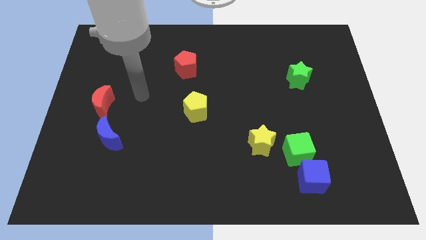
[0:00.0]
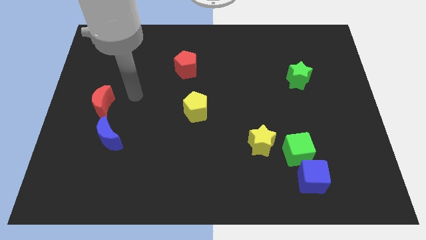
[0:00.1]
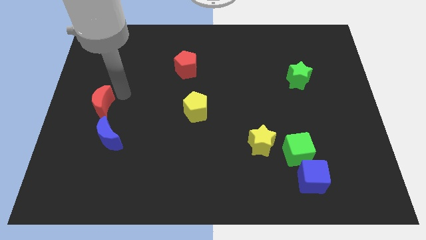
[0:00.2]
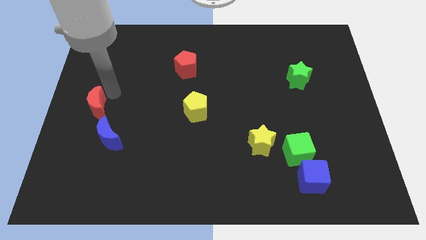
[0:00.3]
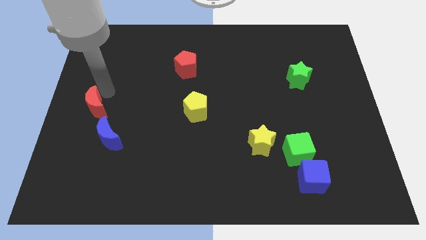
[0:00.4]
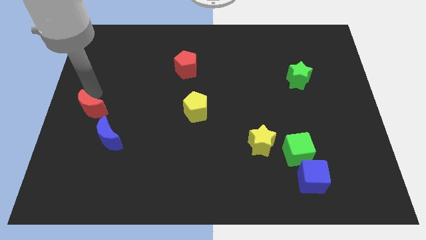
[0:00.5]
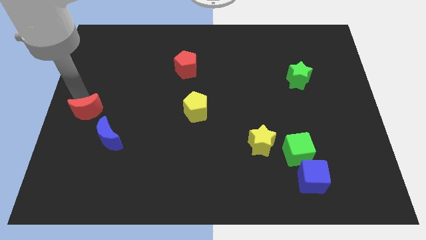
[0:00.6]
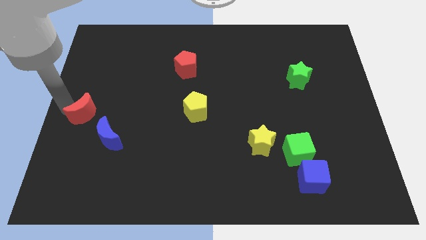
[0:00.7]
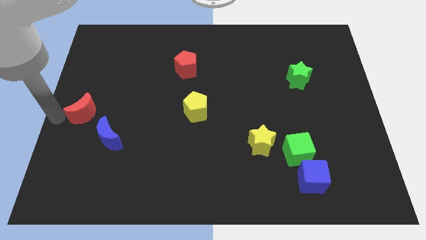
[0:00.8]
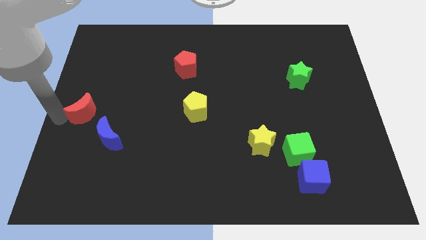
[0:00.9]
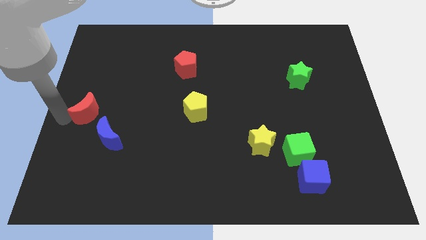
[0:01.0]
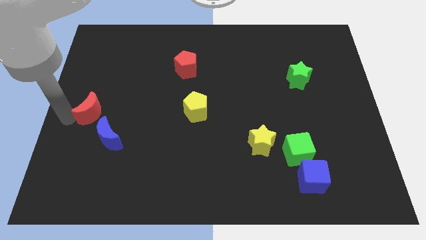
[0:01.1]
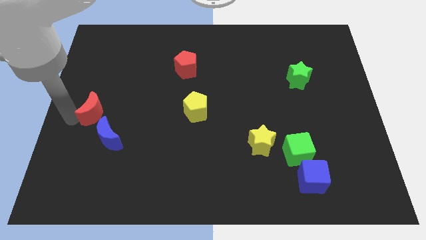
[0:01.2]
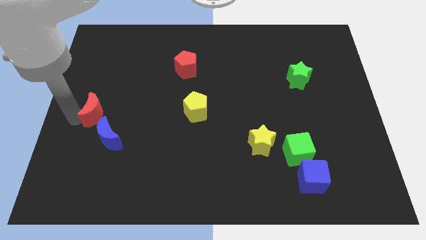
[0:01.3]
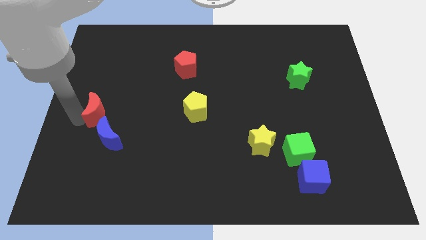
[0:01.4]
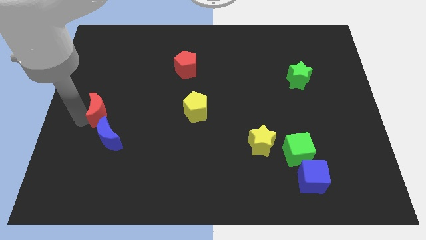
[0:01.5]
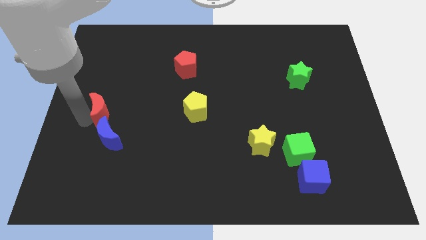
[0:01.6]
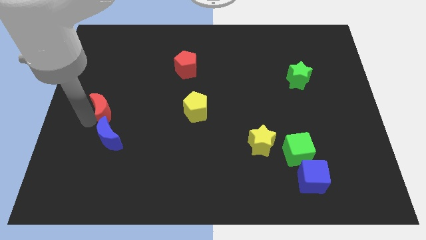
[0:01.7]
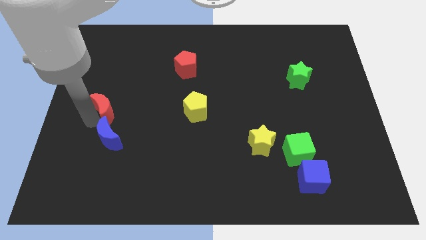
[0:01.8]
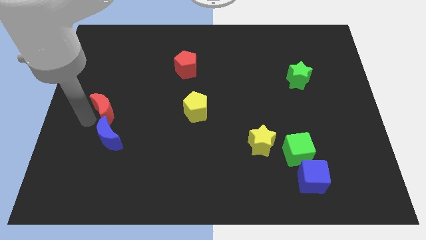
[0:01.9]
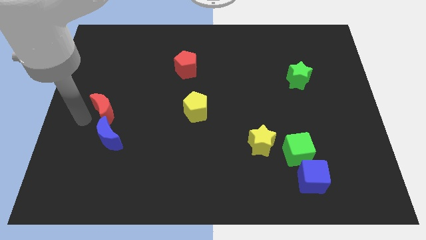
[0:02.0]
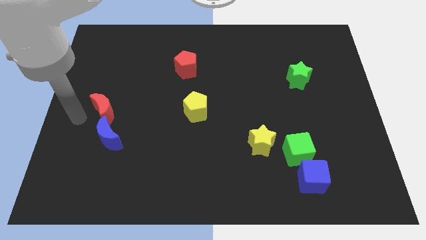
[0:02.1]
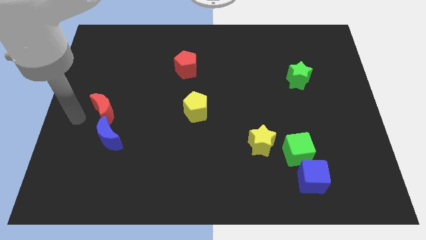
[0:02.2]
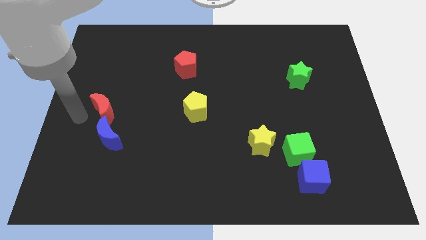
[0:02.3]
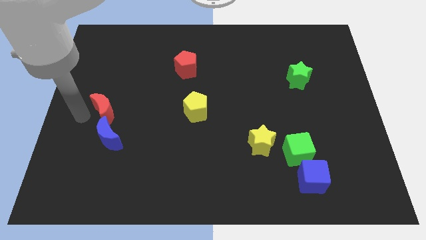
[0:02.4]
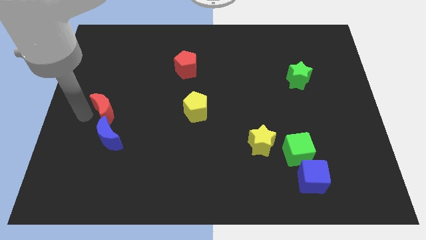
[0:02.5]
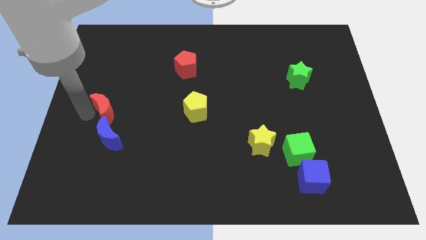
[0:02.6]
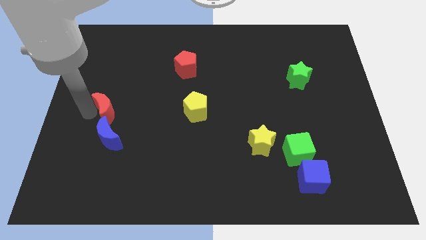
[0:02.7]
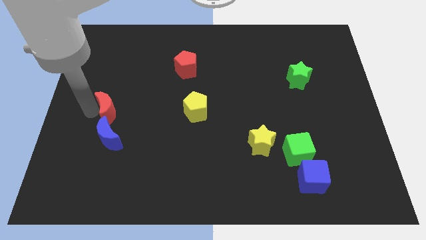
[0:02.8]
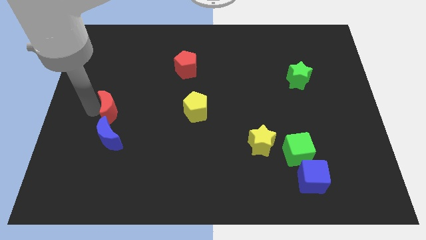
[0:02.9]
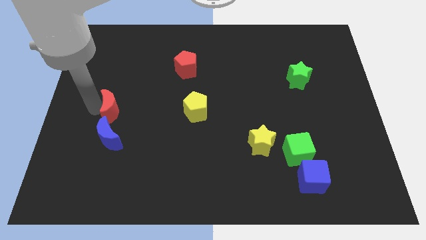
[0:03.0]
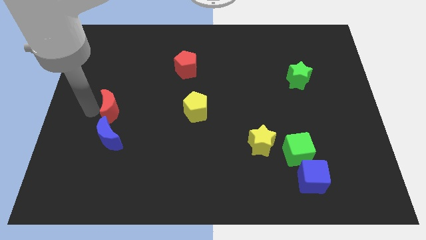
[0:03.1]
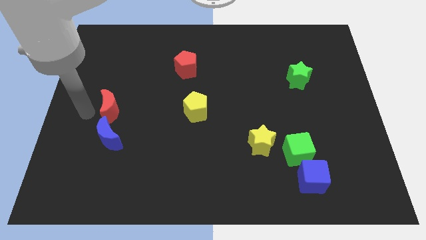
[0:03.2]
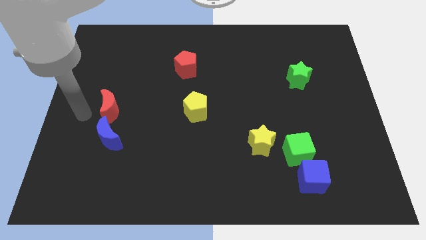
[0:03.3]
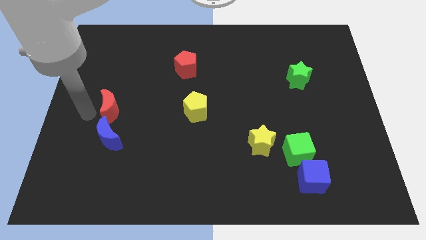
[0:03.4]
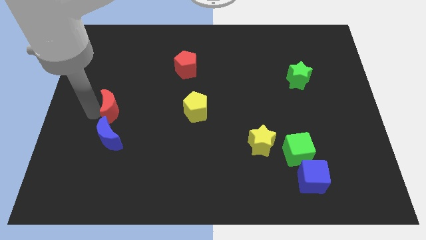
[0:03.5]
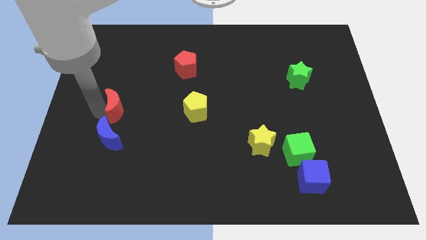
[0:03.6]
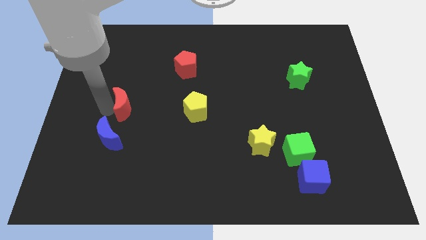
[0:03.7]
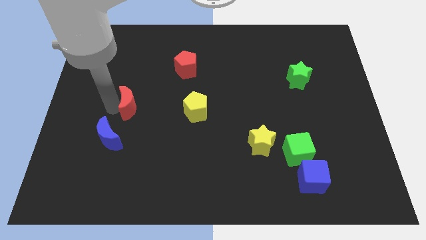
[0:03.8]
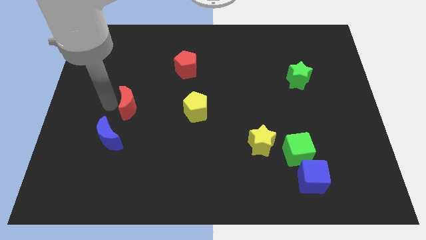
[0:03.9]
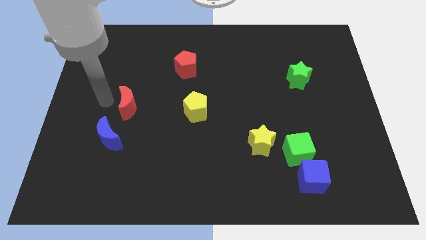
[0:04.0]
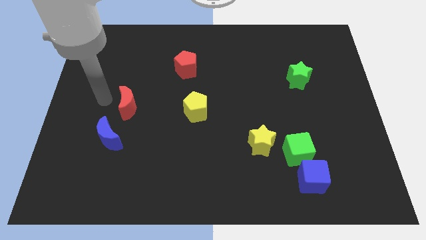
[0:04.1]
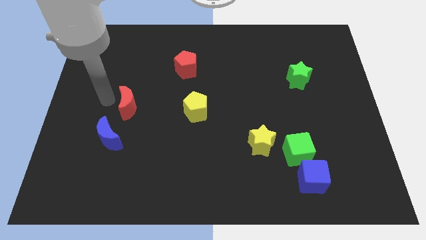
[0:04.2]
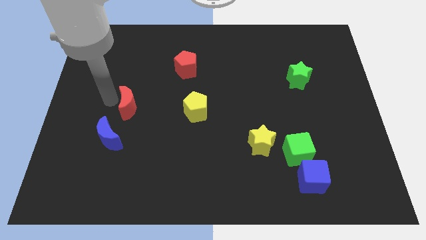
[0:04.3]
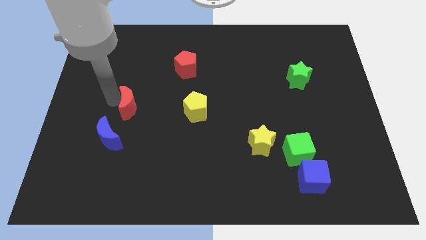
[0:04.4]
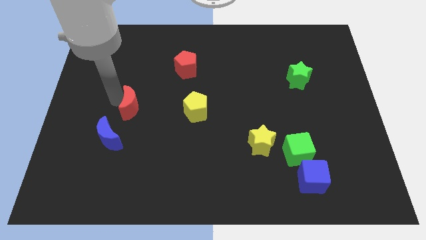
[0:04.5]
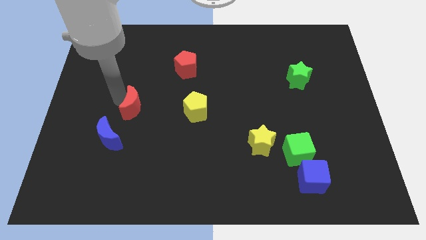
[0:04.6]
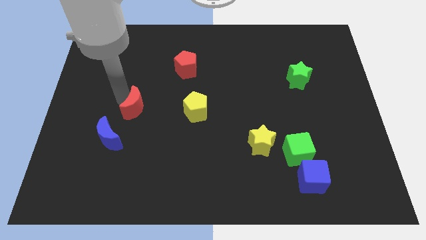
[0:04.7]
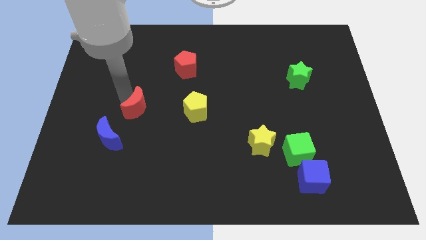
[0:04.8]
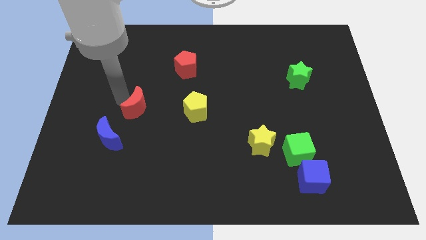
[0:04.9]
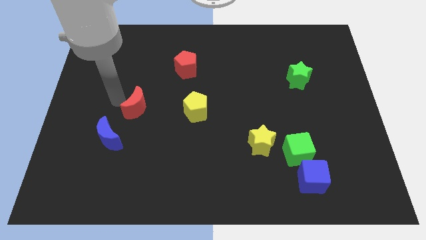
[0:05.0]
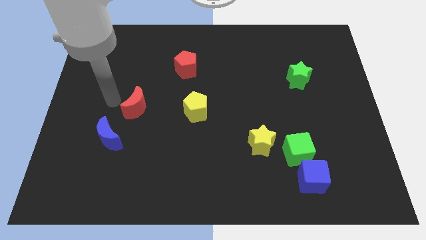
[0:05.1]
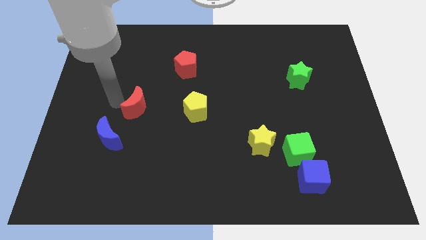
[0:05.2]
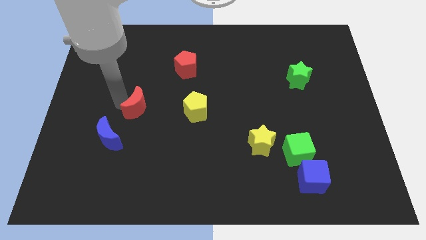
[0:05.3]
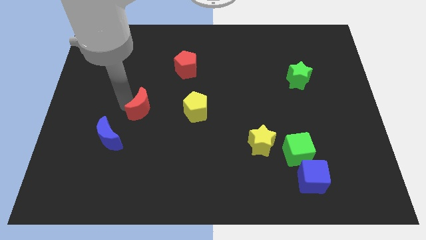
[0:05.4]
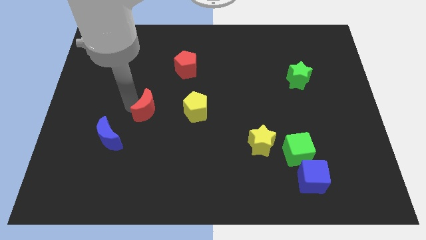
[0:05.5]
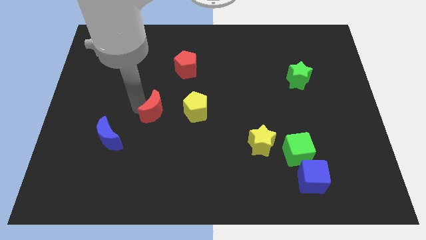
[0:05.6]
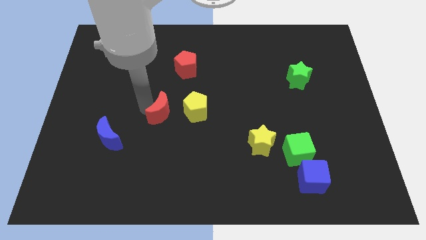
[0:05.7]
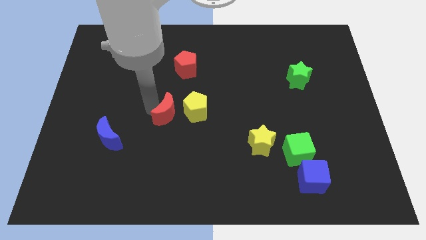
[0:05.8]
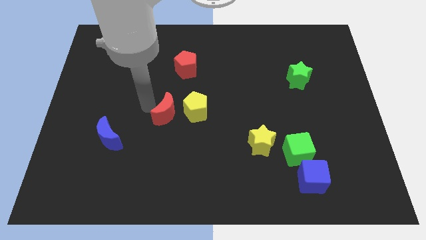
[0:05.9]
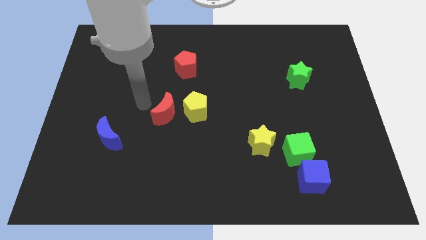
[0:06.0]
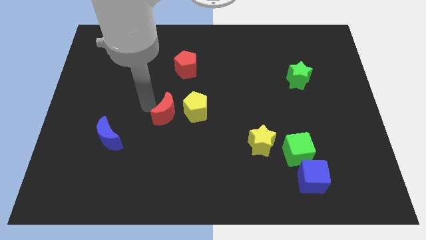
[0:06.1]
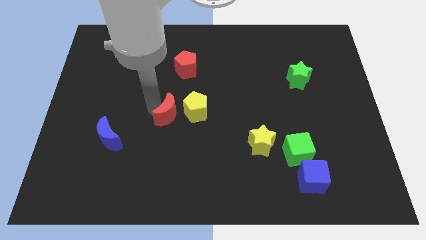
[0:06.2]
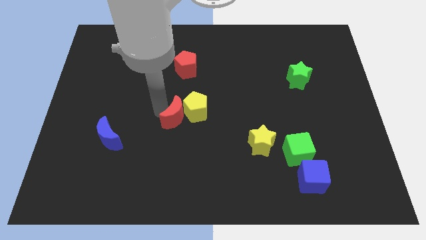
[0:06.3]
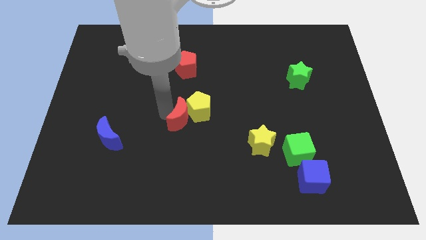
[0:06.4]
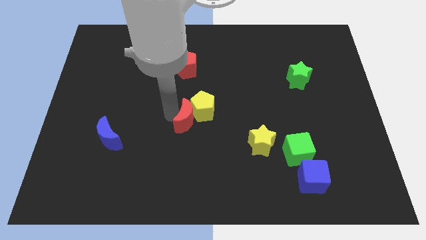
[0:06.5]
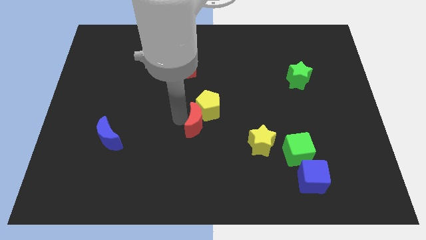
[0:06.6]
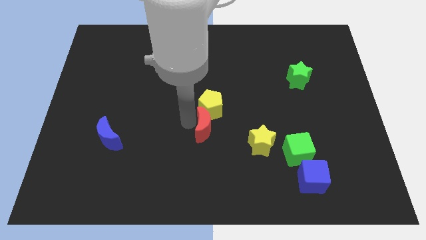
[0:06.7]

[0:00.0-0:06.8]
slide the red moon diagonally down and to the right of the yellow pentagon
